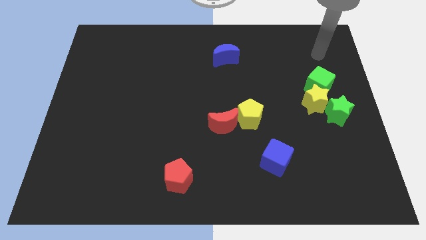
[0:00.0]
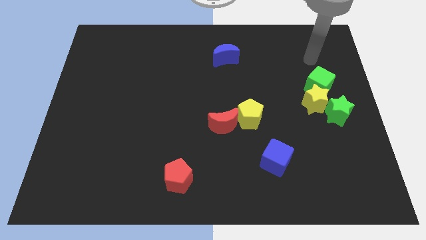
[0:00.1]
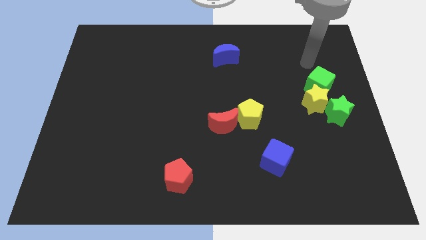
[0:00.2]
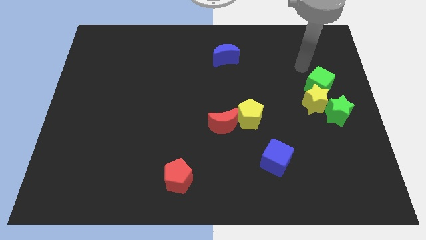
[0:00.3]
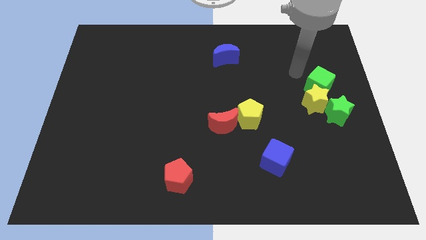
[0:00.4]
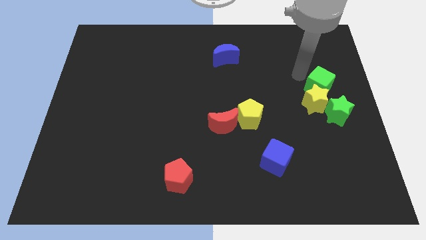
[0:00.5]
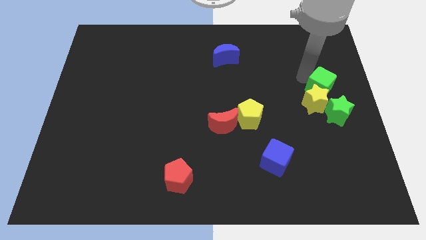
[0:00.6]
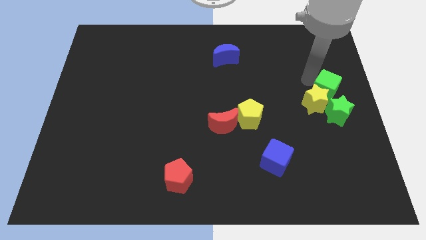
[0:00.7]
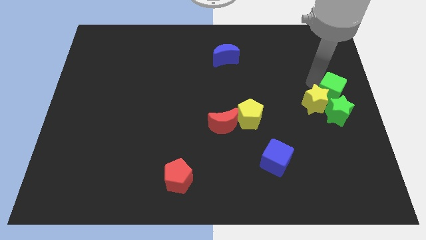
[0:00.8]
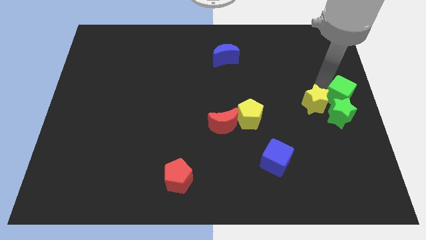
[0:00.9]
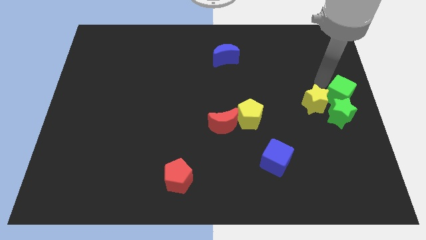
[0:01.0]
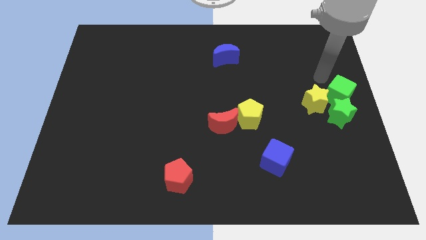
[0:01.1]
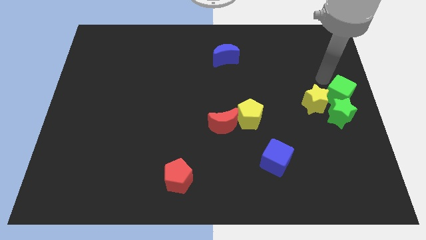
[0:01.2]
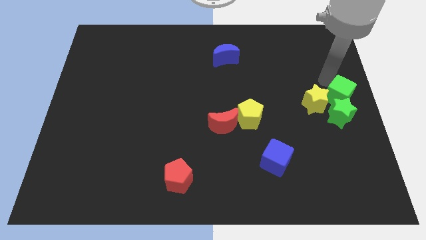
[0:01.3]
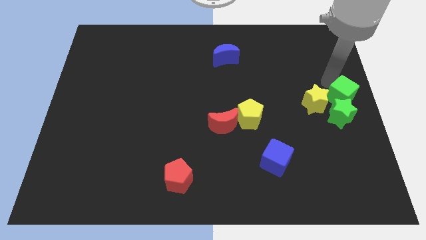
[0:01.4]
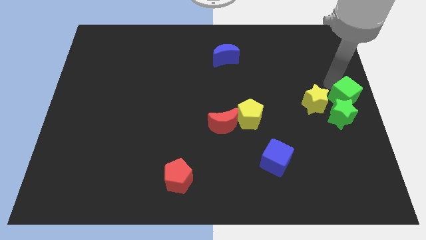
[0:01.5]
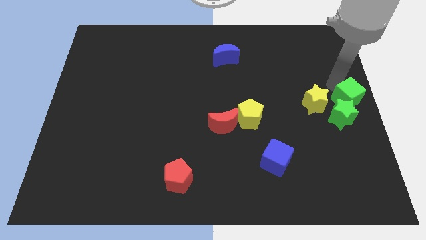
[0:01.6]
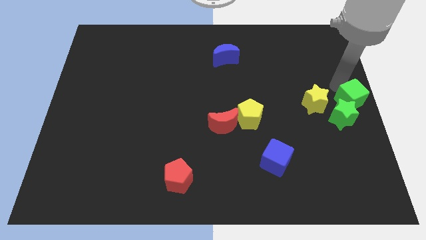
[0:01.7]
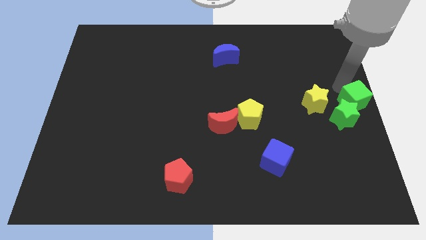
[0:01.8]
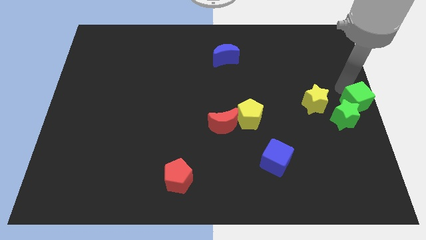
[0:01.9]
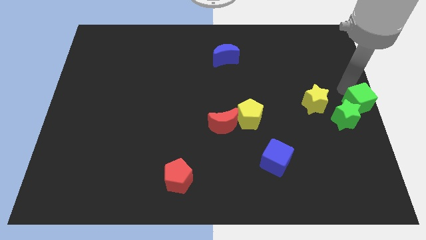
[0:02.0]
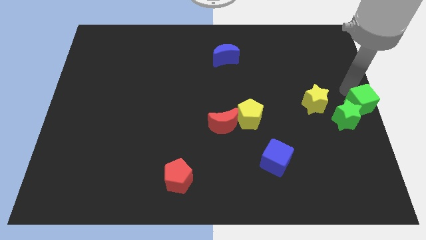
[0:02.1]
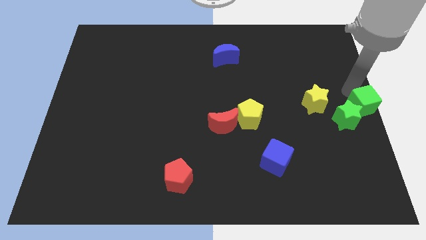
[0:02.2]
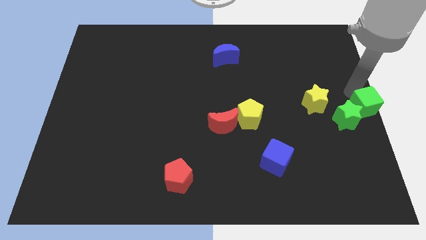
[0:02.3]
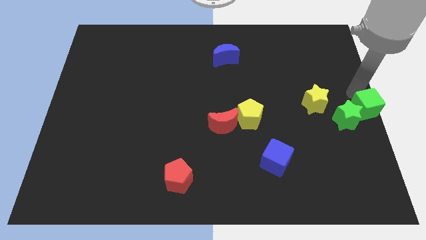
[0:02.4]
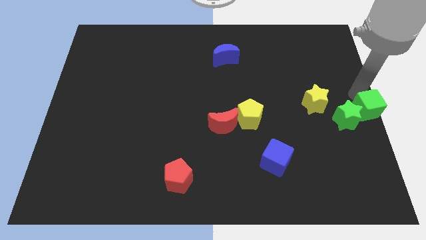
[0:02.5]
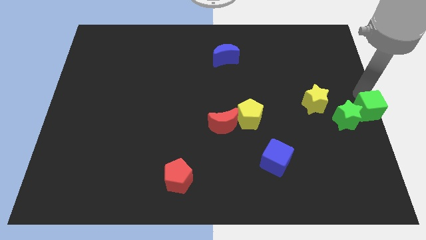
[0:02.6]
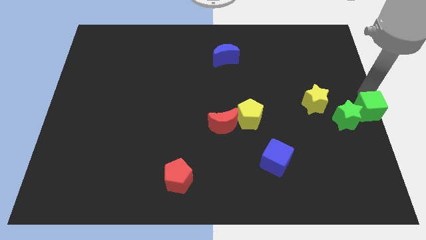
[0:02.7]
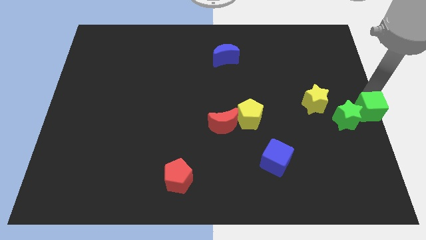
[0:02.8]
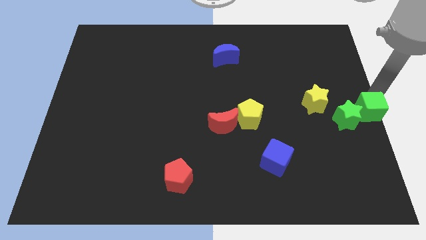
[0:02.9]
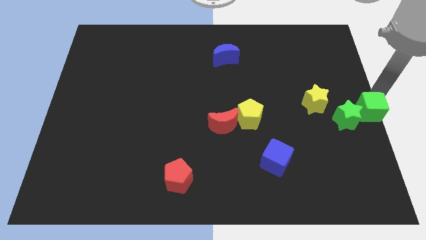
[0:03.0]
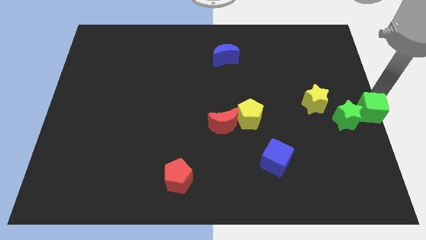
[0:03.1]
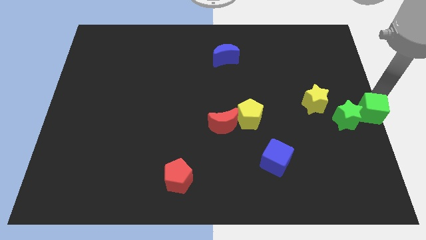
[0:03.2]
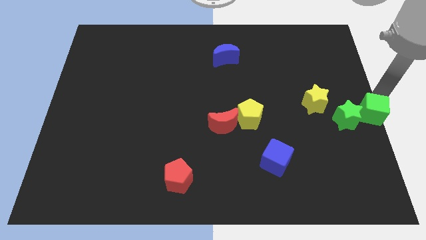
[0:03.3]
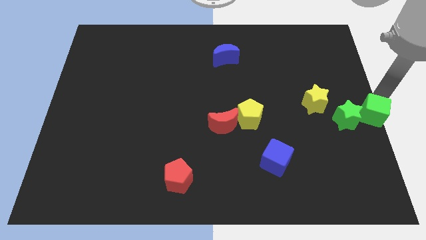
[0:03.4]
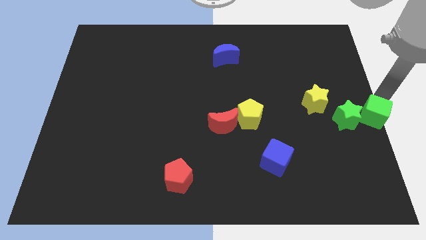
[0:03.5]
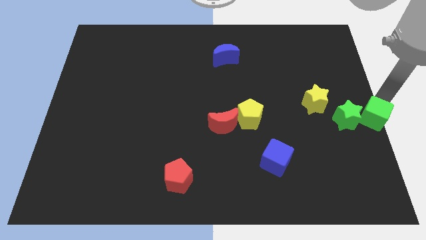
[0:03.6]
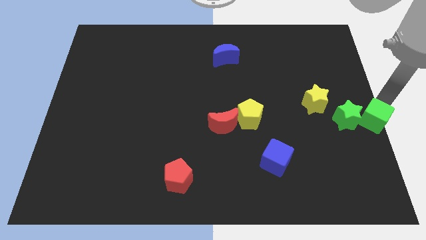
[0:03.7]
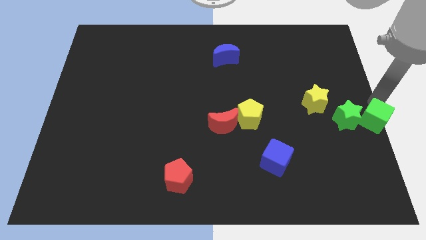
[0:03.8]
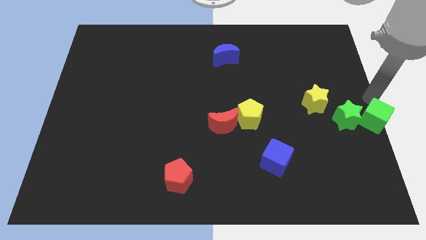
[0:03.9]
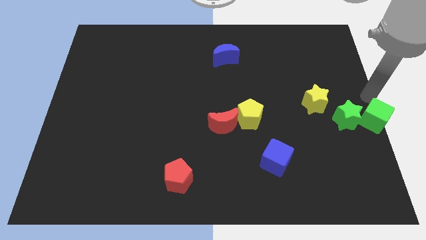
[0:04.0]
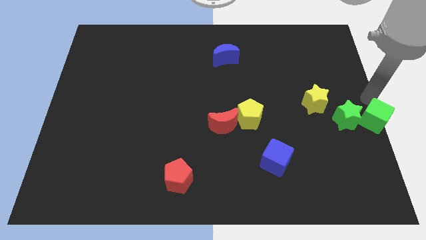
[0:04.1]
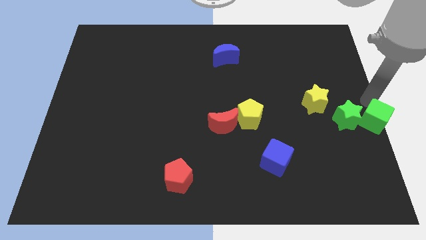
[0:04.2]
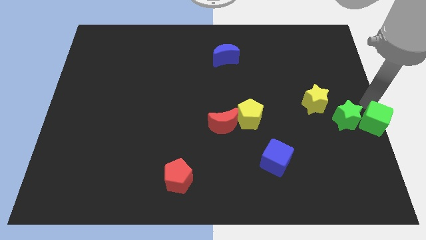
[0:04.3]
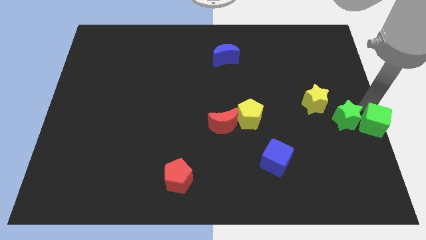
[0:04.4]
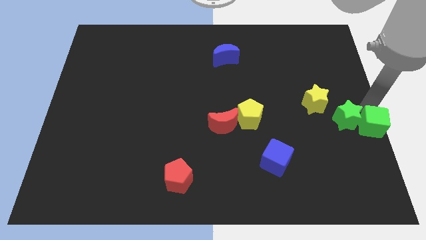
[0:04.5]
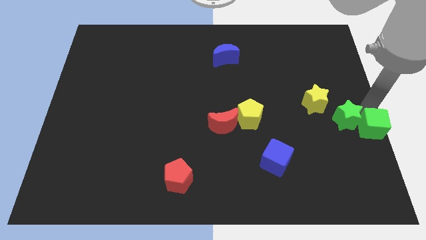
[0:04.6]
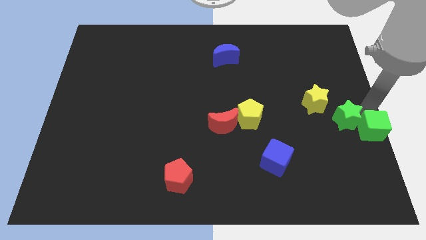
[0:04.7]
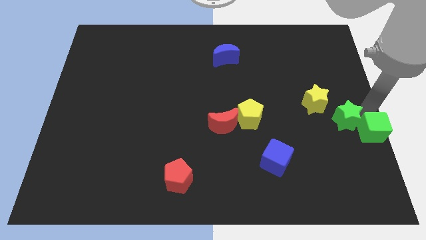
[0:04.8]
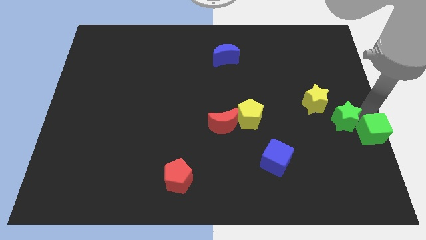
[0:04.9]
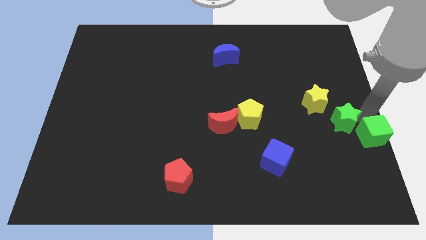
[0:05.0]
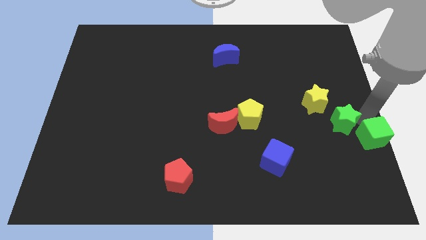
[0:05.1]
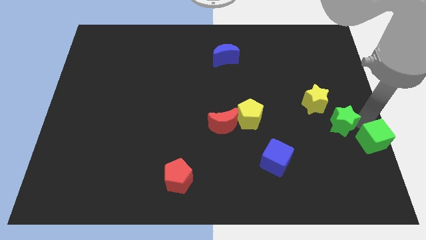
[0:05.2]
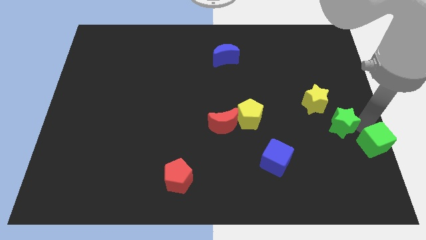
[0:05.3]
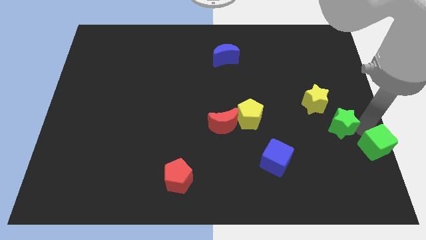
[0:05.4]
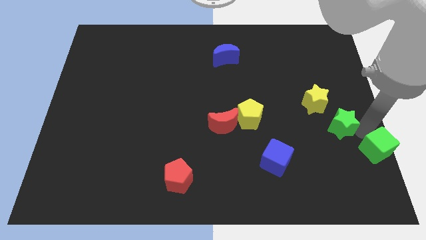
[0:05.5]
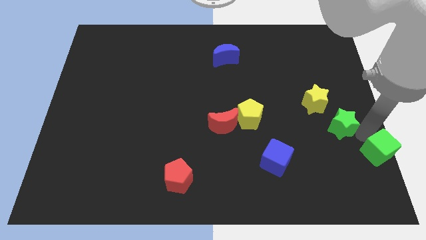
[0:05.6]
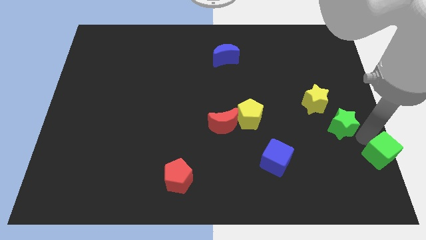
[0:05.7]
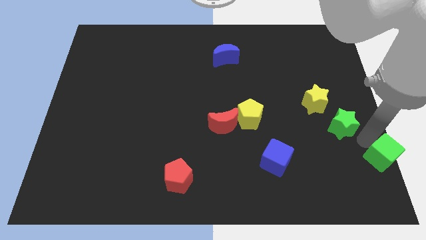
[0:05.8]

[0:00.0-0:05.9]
put the green cube to the bottom right

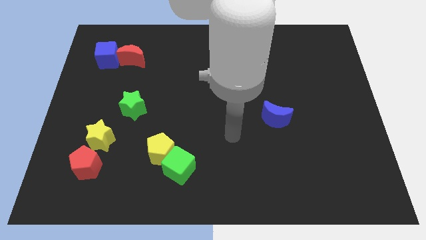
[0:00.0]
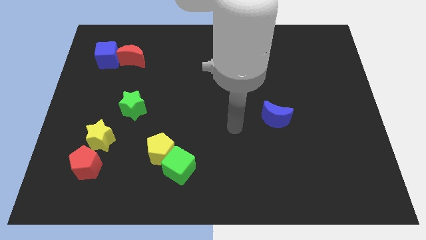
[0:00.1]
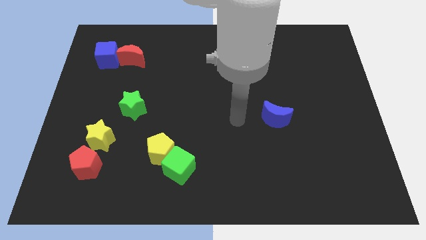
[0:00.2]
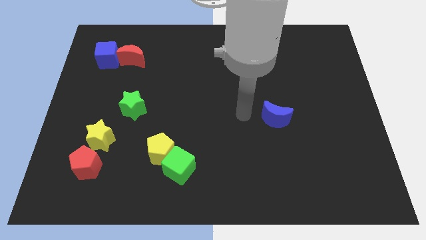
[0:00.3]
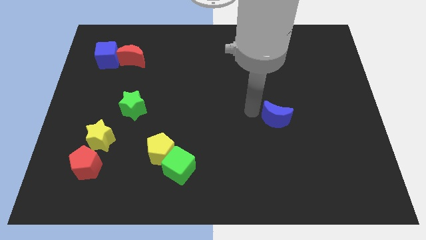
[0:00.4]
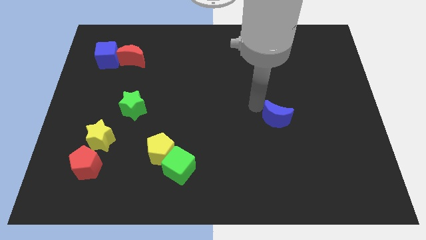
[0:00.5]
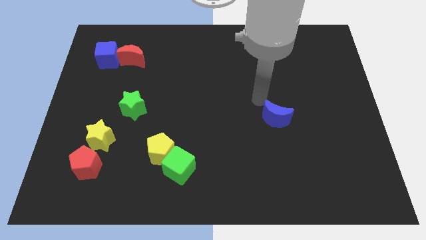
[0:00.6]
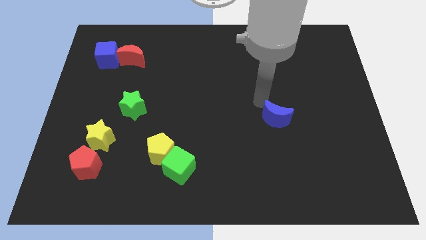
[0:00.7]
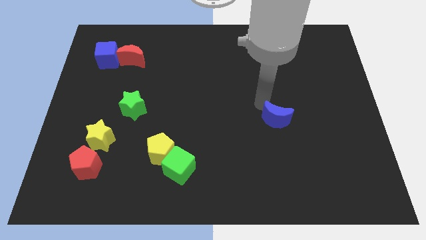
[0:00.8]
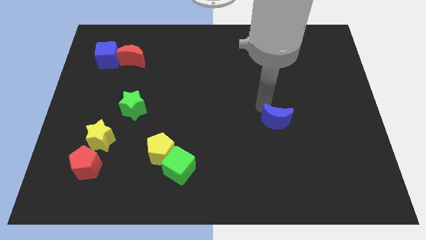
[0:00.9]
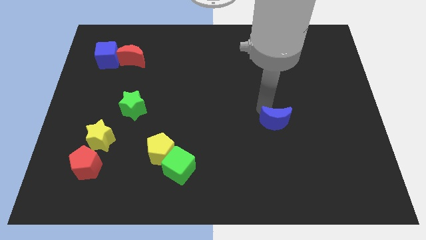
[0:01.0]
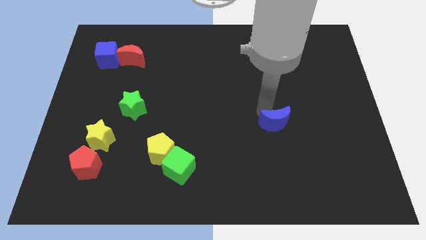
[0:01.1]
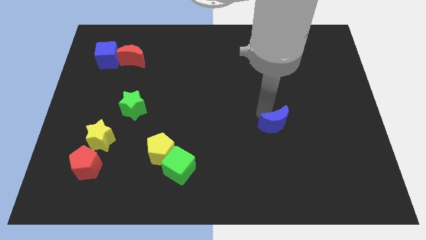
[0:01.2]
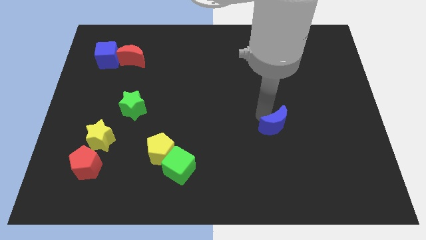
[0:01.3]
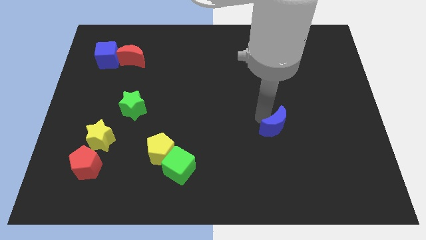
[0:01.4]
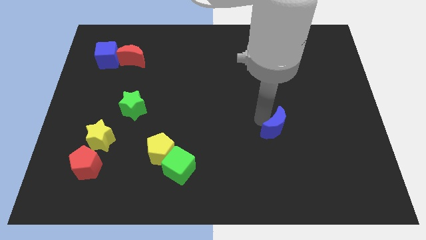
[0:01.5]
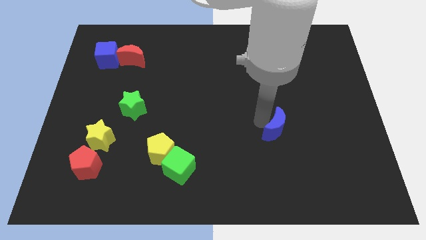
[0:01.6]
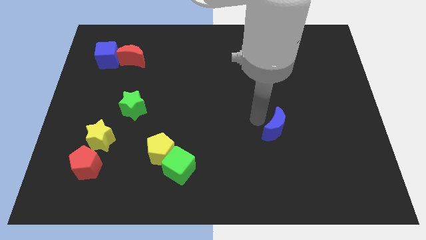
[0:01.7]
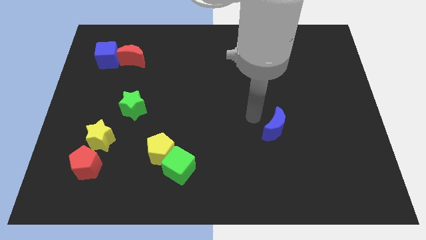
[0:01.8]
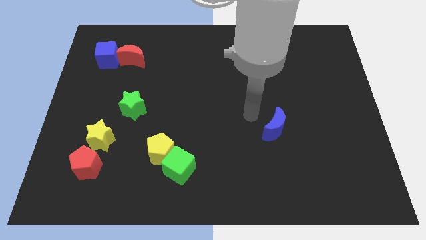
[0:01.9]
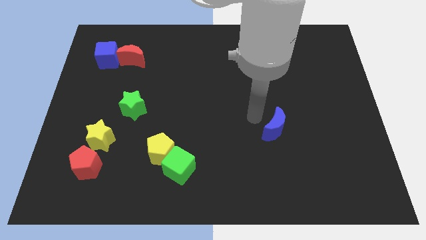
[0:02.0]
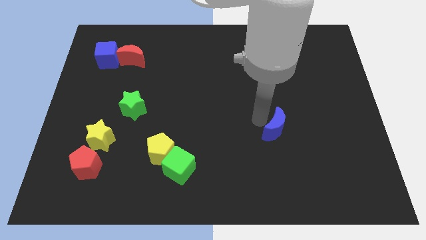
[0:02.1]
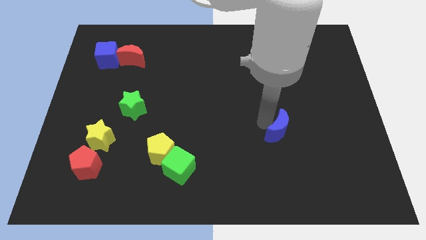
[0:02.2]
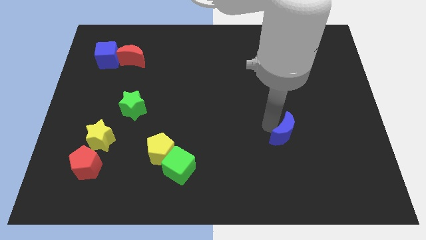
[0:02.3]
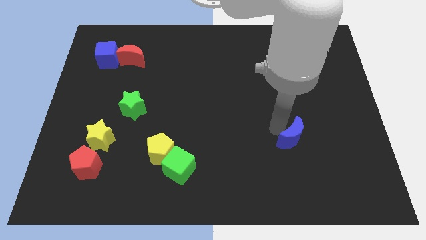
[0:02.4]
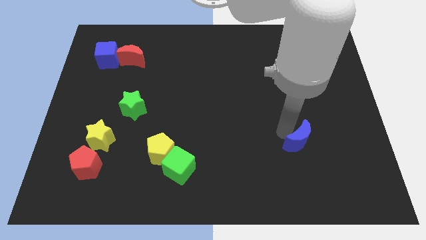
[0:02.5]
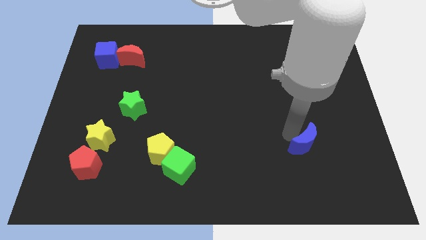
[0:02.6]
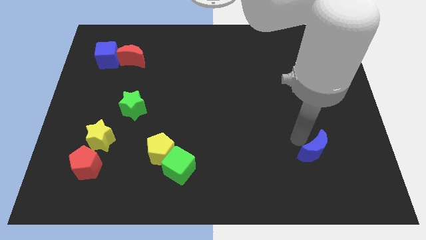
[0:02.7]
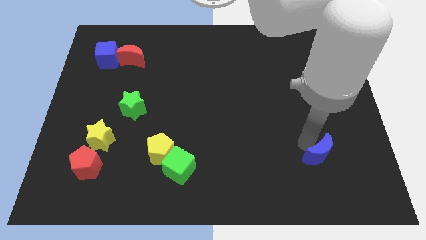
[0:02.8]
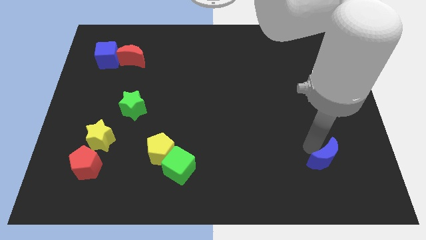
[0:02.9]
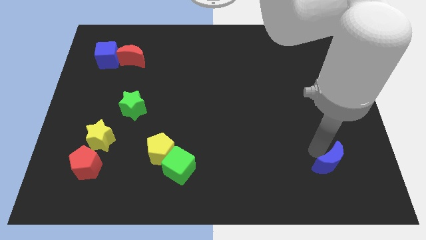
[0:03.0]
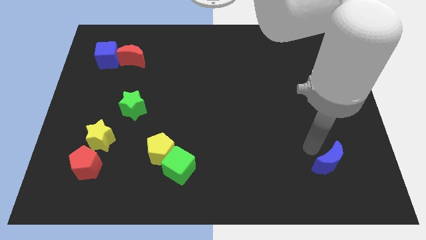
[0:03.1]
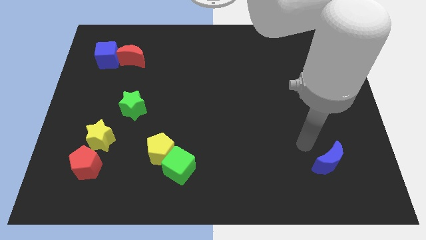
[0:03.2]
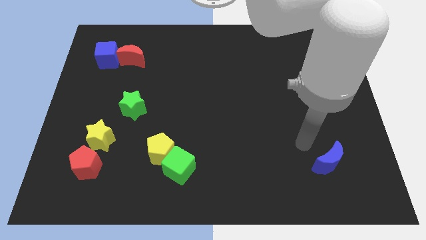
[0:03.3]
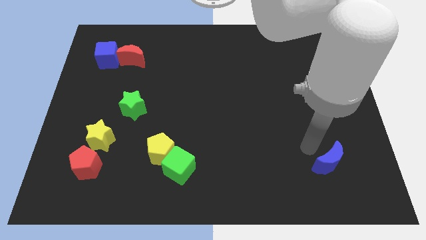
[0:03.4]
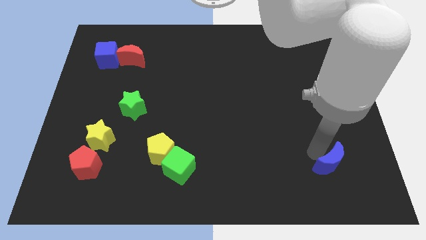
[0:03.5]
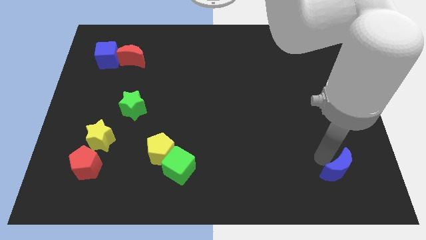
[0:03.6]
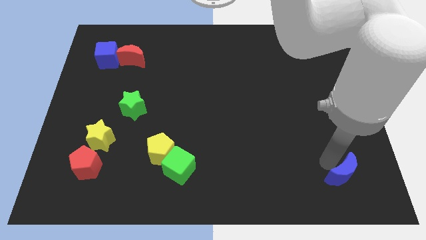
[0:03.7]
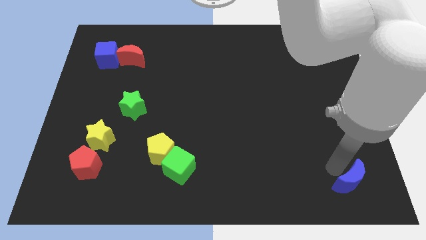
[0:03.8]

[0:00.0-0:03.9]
push the blue moon to the lower right corner
